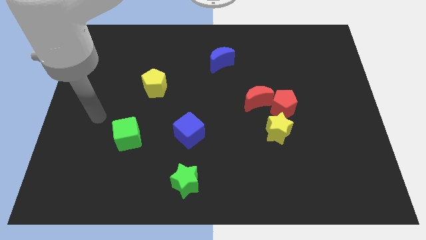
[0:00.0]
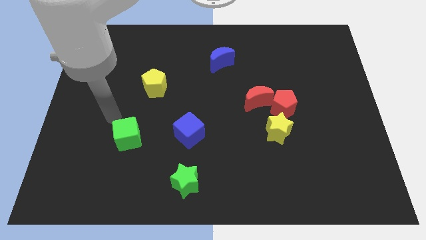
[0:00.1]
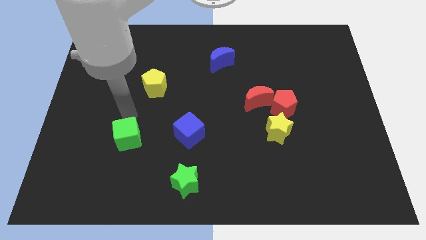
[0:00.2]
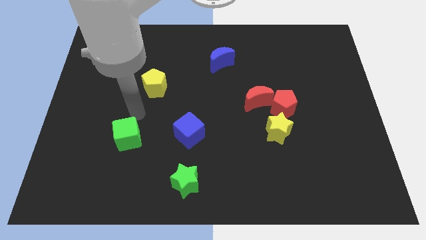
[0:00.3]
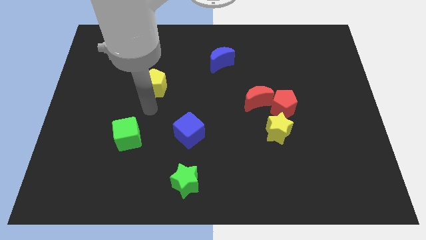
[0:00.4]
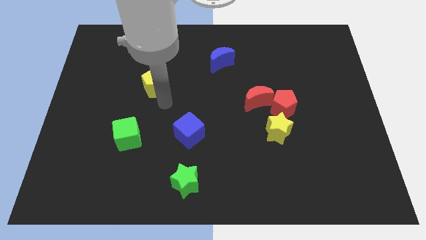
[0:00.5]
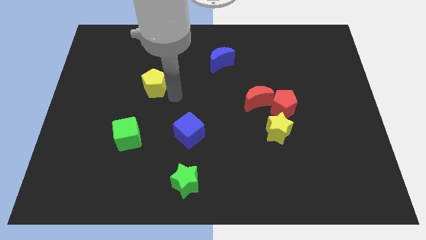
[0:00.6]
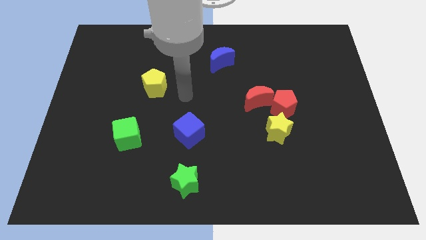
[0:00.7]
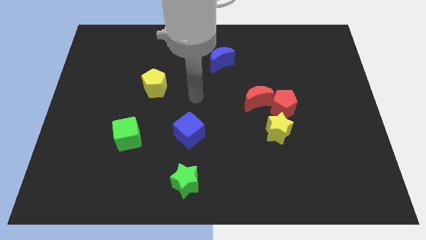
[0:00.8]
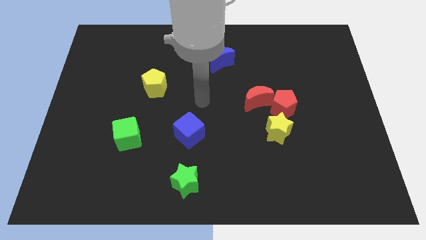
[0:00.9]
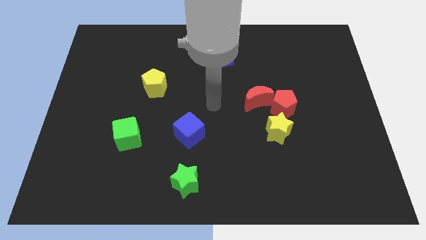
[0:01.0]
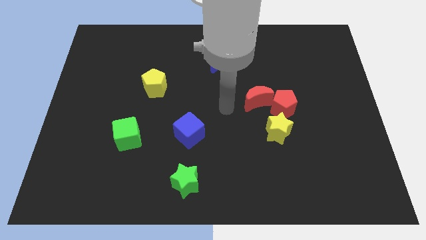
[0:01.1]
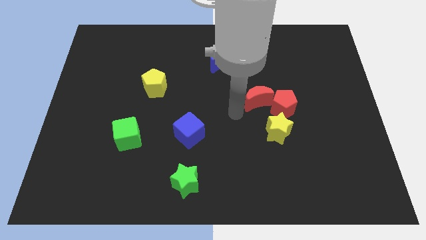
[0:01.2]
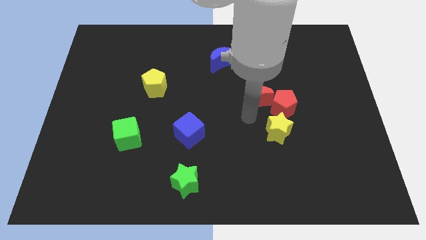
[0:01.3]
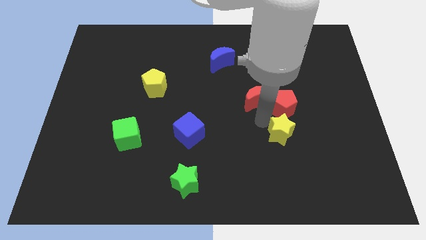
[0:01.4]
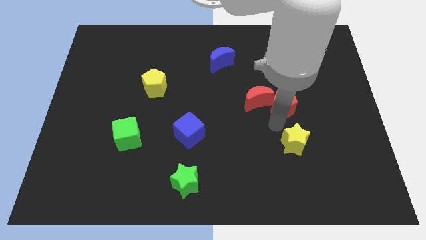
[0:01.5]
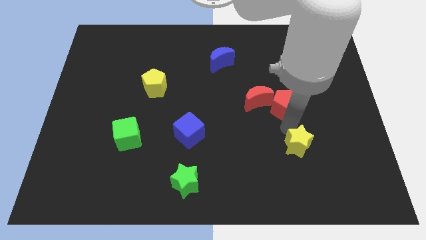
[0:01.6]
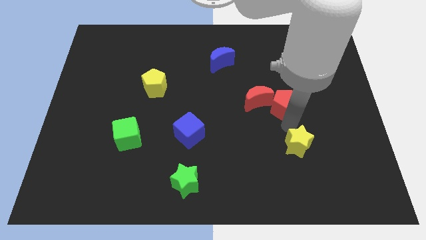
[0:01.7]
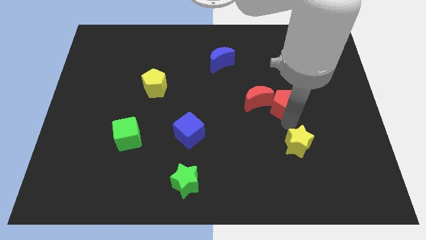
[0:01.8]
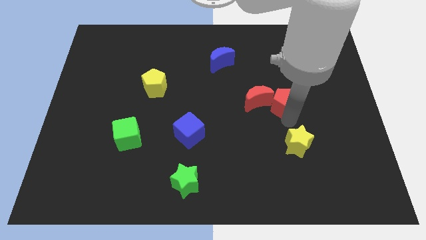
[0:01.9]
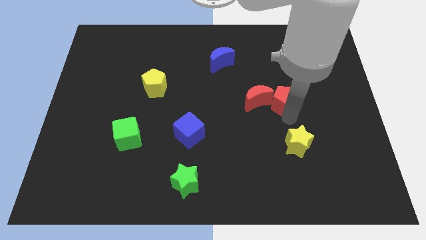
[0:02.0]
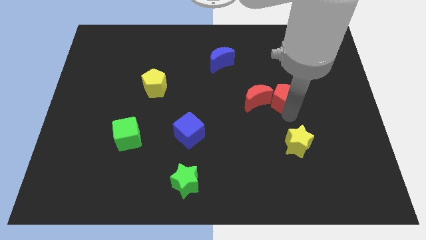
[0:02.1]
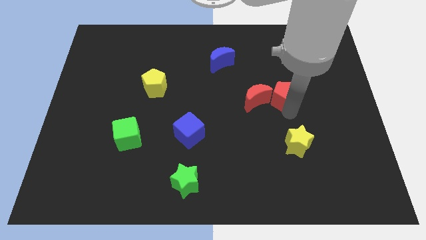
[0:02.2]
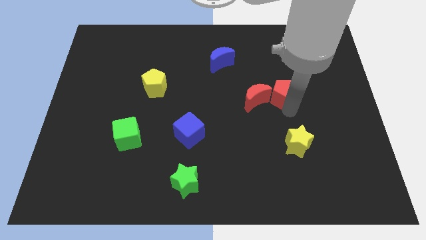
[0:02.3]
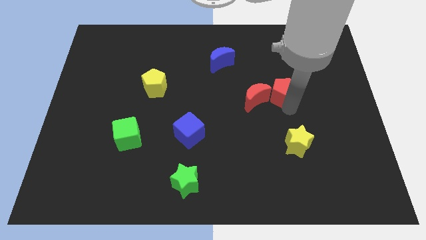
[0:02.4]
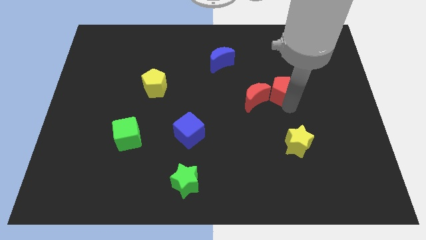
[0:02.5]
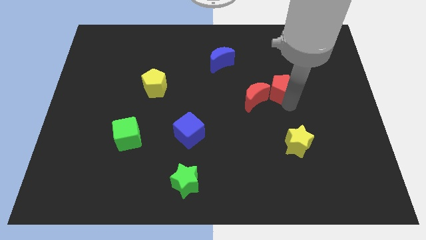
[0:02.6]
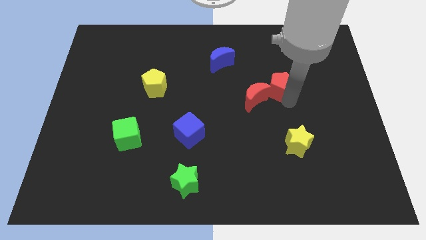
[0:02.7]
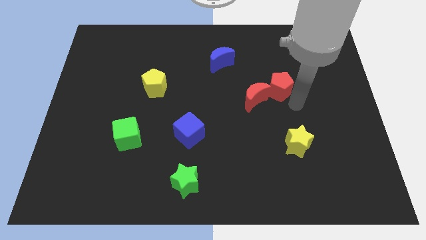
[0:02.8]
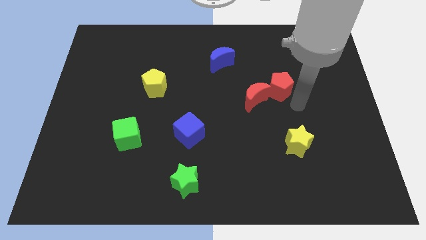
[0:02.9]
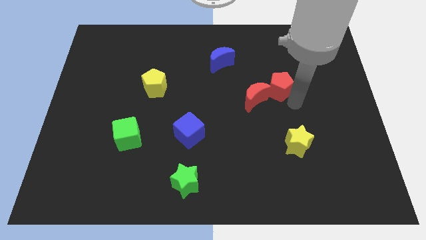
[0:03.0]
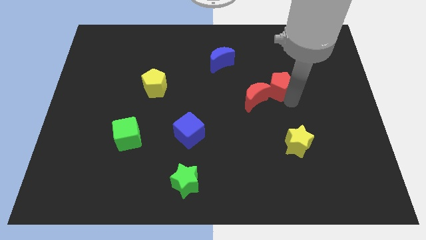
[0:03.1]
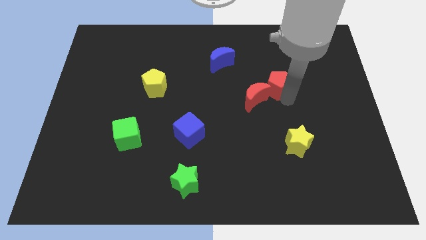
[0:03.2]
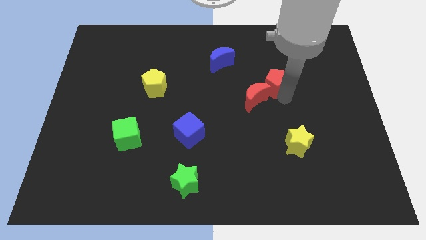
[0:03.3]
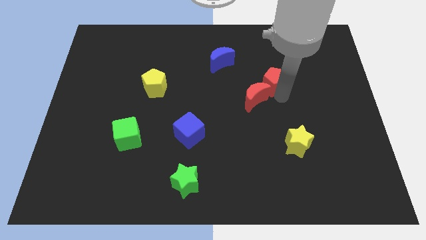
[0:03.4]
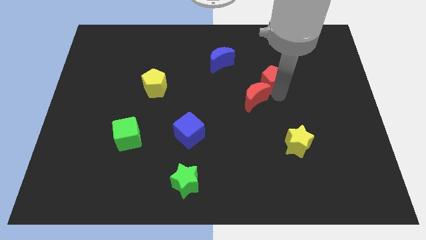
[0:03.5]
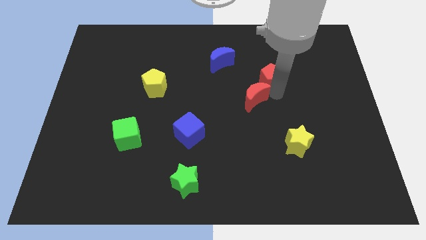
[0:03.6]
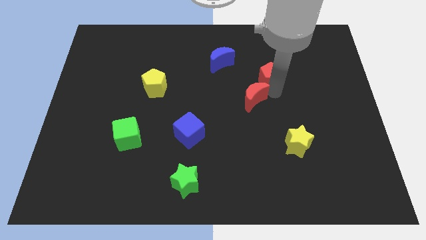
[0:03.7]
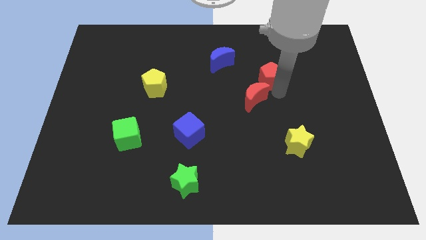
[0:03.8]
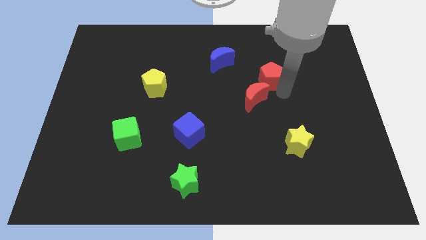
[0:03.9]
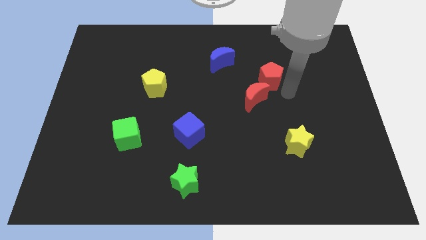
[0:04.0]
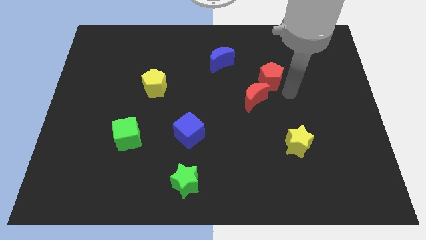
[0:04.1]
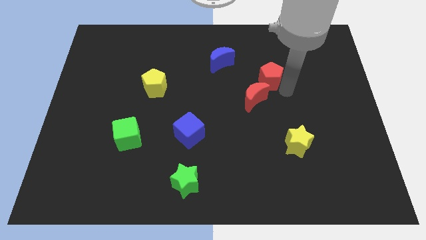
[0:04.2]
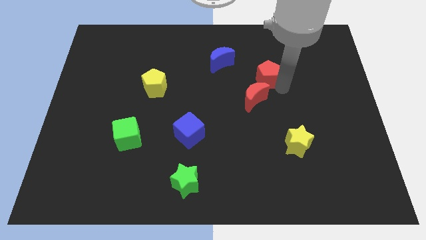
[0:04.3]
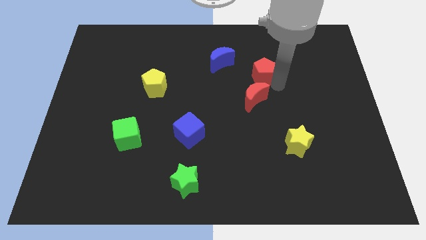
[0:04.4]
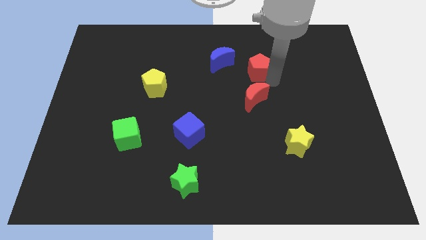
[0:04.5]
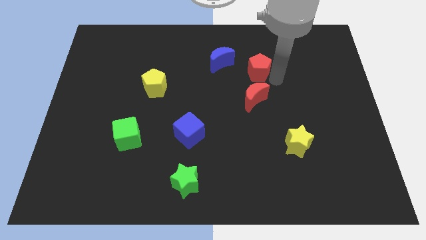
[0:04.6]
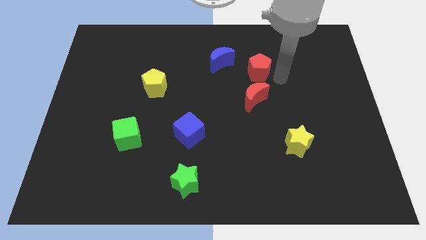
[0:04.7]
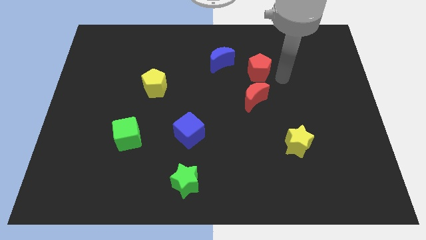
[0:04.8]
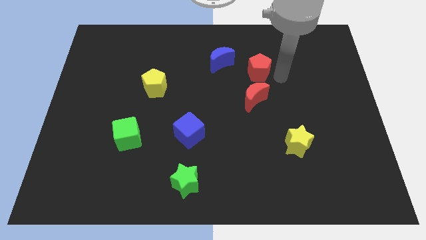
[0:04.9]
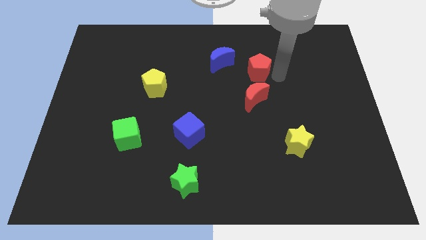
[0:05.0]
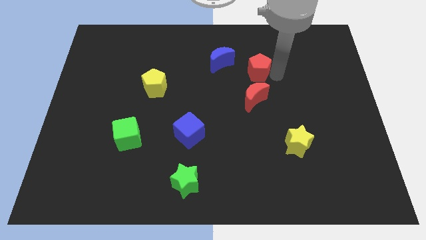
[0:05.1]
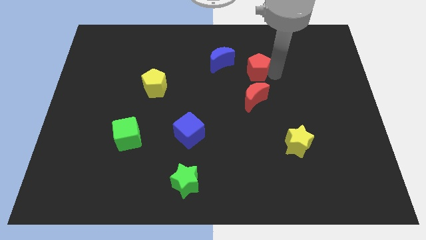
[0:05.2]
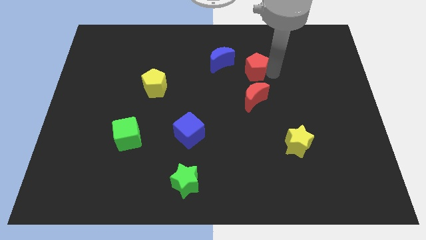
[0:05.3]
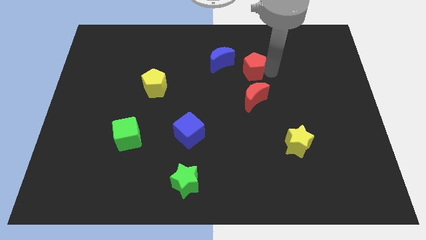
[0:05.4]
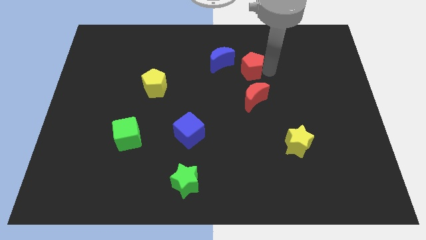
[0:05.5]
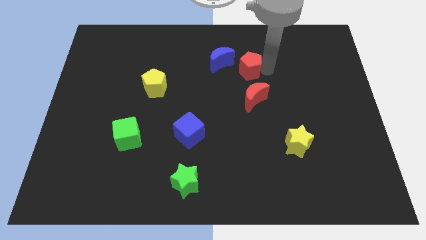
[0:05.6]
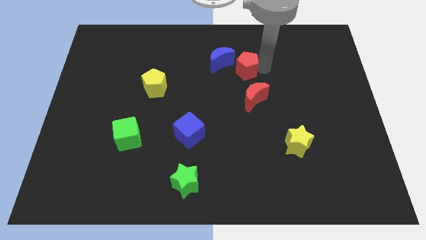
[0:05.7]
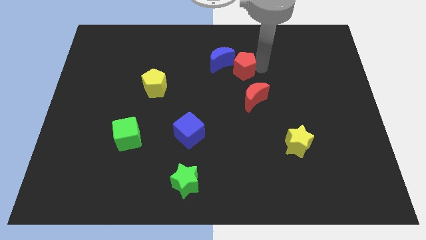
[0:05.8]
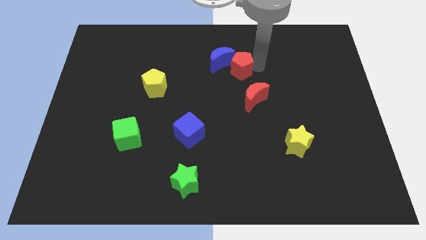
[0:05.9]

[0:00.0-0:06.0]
move the red pentagon close to the blue moon

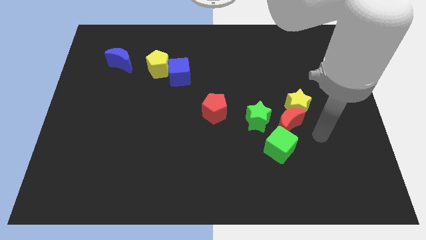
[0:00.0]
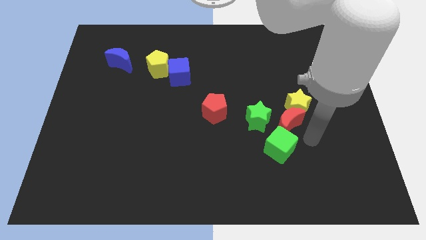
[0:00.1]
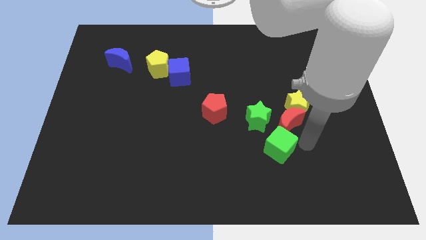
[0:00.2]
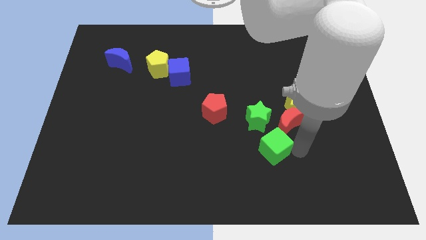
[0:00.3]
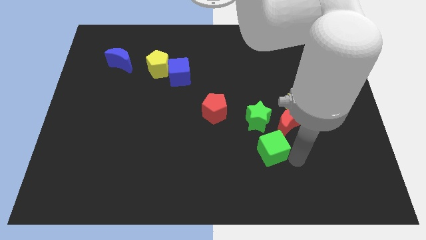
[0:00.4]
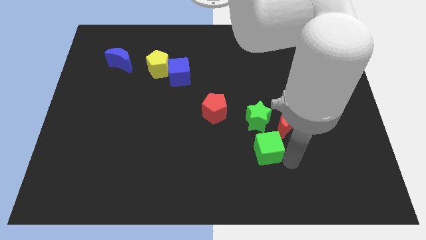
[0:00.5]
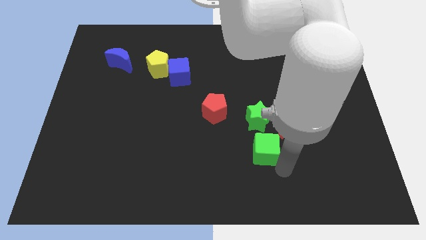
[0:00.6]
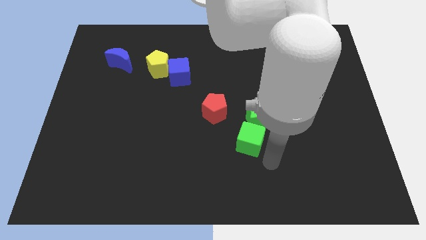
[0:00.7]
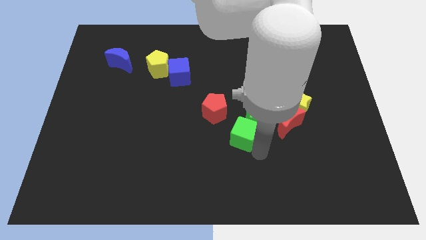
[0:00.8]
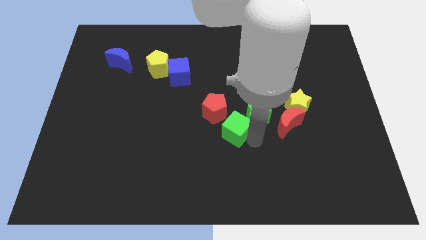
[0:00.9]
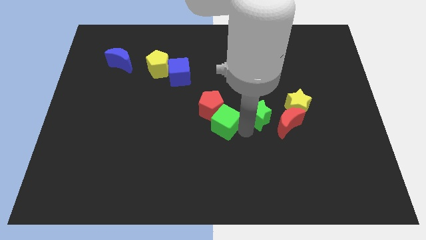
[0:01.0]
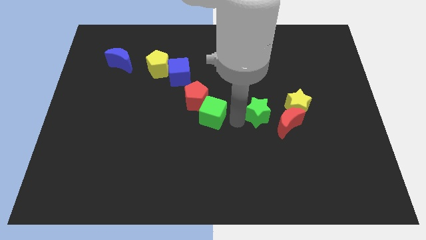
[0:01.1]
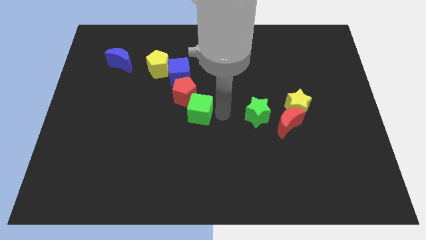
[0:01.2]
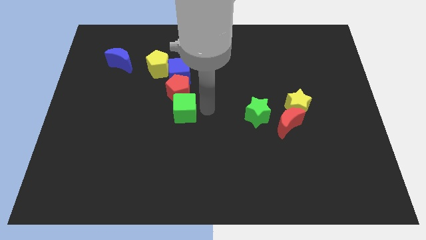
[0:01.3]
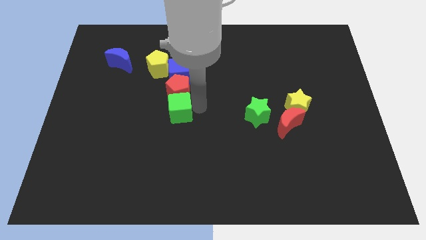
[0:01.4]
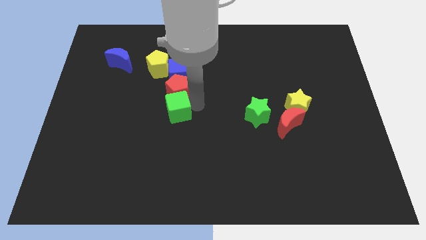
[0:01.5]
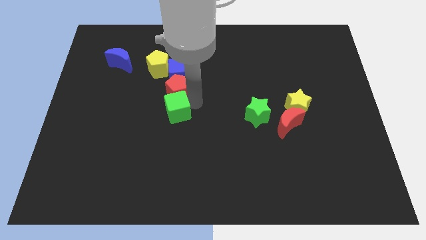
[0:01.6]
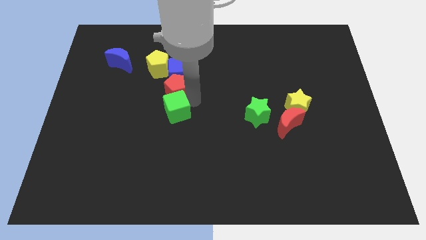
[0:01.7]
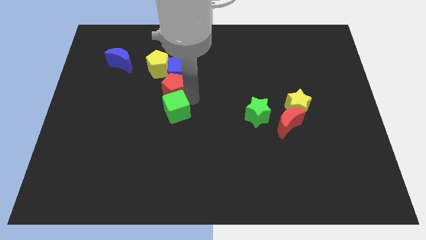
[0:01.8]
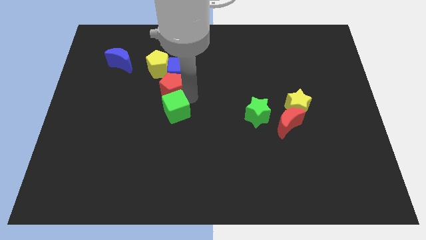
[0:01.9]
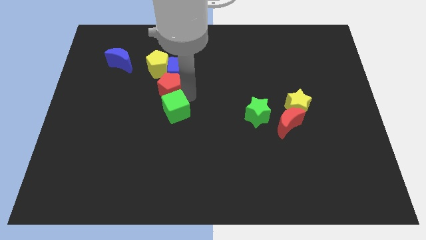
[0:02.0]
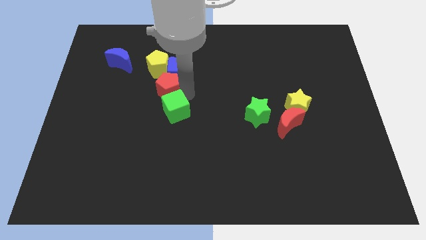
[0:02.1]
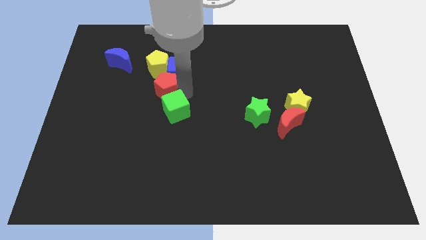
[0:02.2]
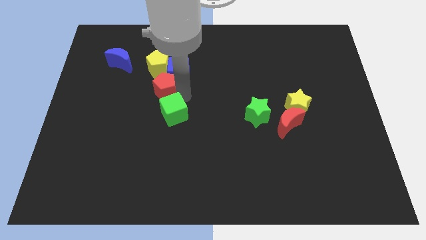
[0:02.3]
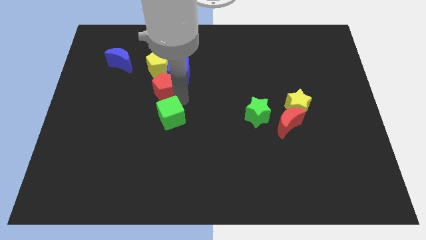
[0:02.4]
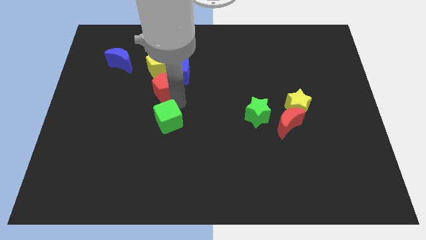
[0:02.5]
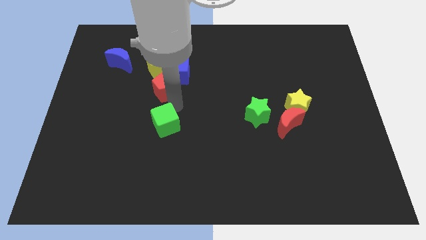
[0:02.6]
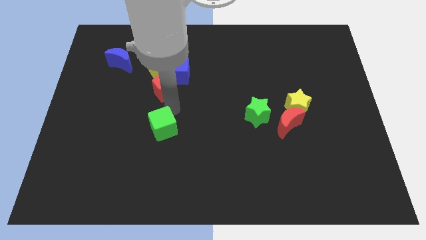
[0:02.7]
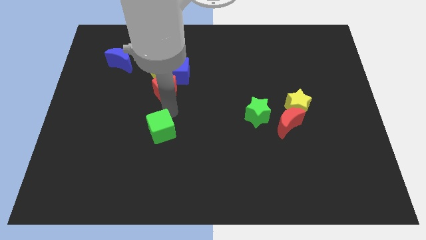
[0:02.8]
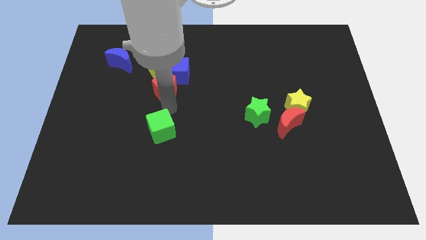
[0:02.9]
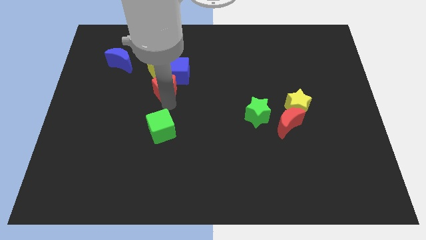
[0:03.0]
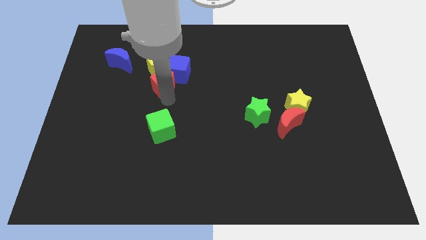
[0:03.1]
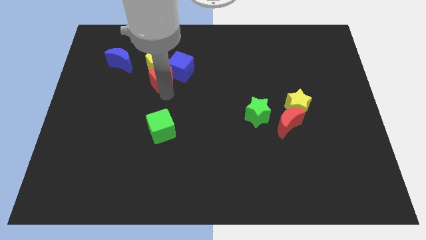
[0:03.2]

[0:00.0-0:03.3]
put the red pentagon next to the yellow pentagon
